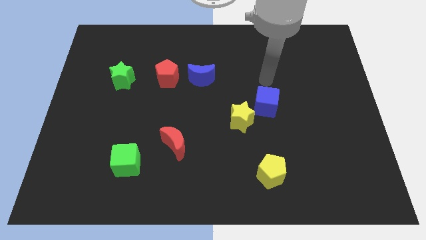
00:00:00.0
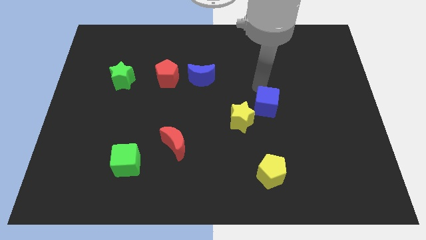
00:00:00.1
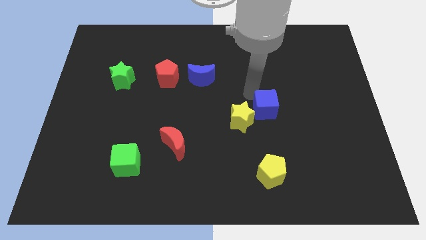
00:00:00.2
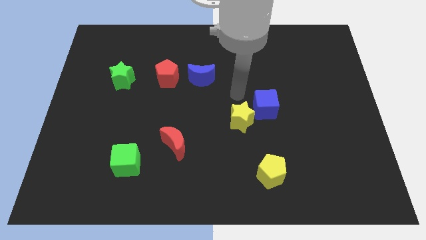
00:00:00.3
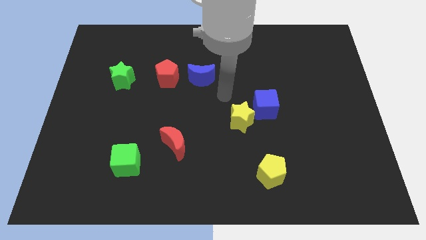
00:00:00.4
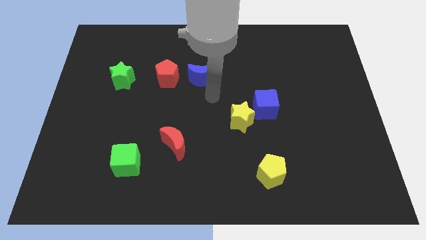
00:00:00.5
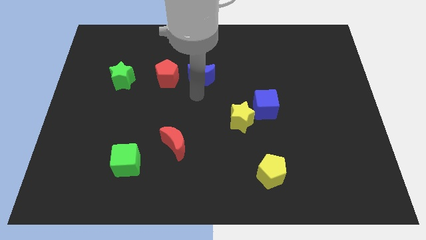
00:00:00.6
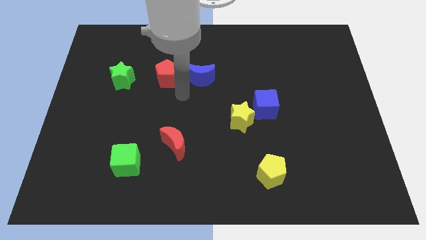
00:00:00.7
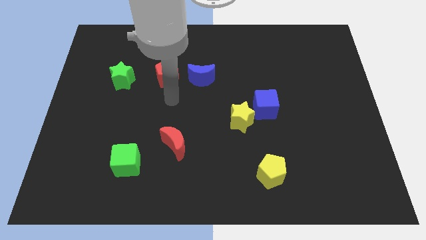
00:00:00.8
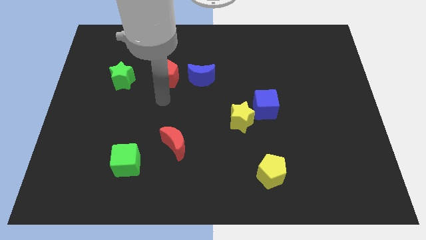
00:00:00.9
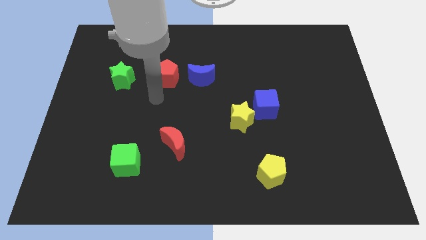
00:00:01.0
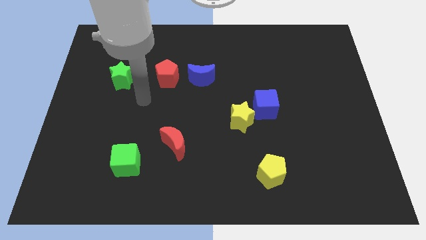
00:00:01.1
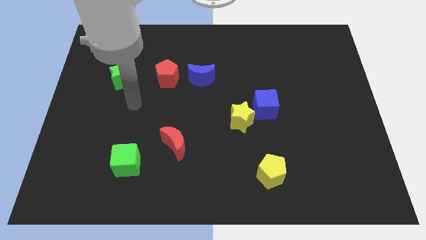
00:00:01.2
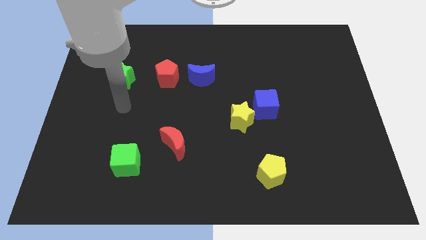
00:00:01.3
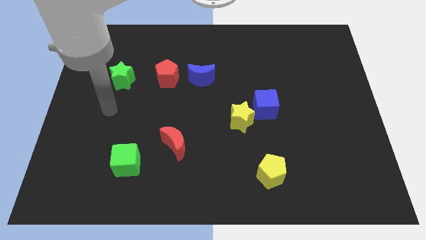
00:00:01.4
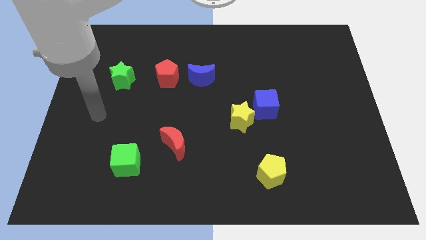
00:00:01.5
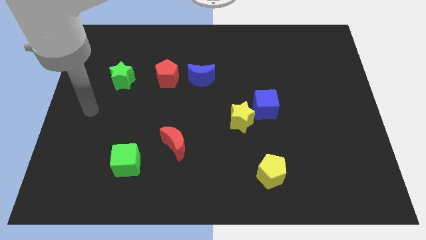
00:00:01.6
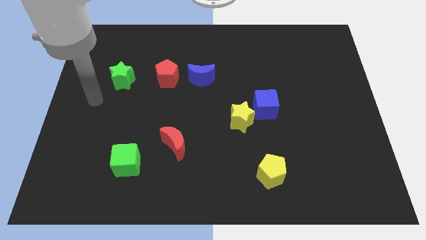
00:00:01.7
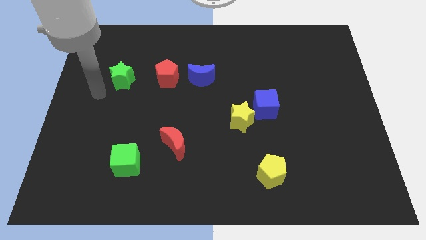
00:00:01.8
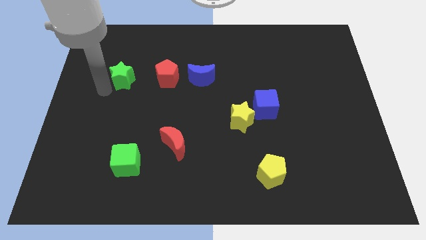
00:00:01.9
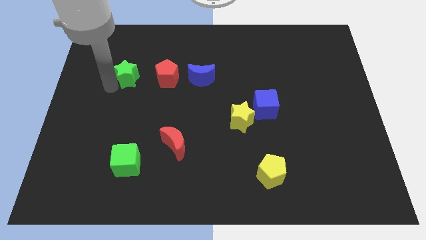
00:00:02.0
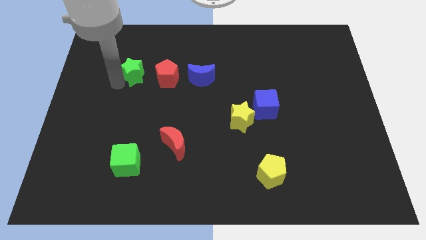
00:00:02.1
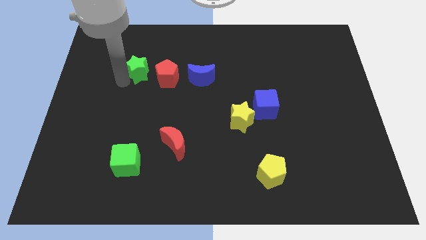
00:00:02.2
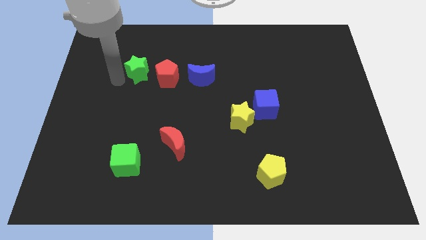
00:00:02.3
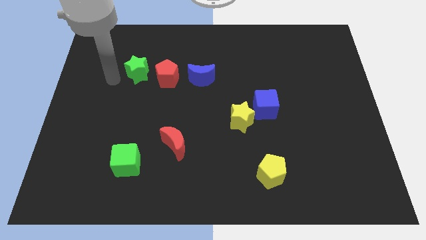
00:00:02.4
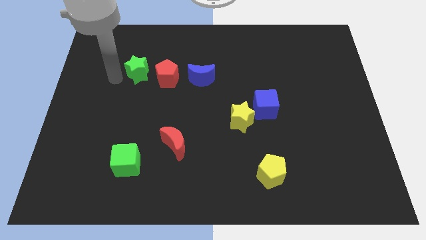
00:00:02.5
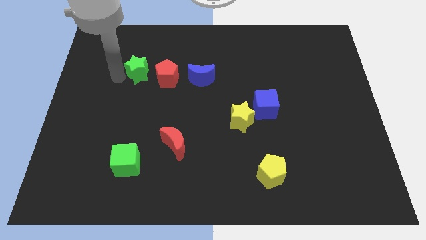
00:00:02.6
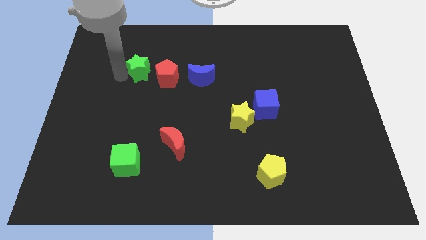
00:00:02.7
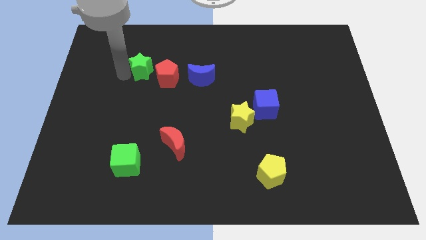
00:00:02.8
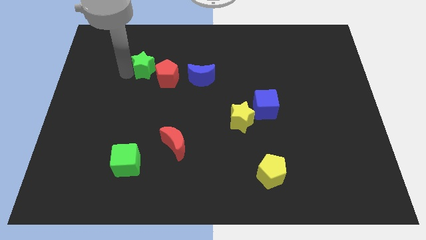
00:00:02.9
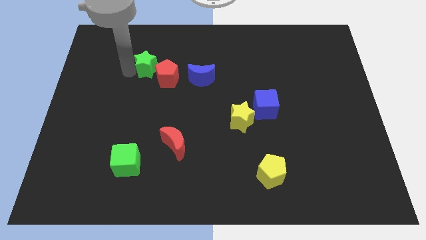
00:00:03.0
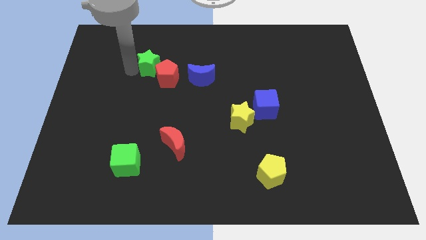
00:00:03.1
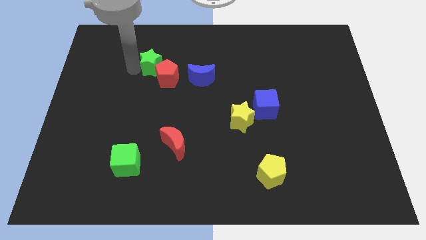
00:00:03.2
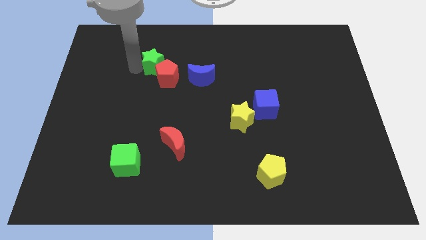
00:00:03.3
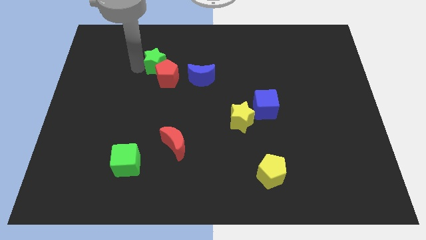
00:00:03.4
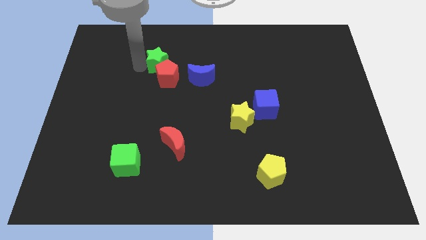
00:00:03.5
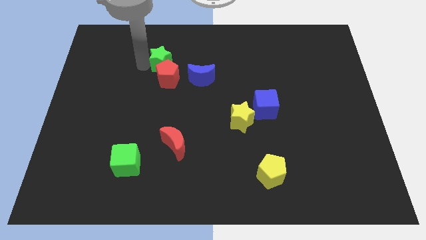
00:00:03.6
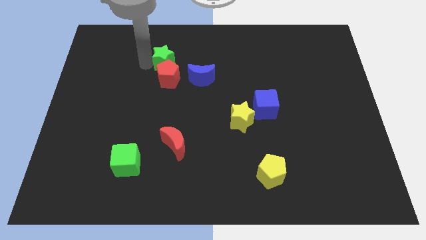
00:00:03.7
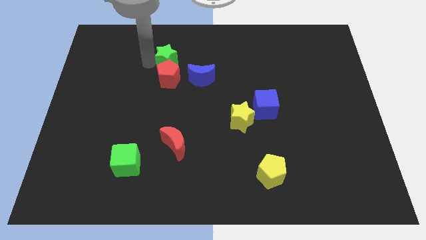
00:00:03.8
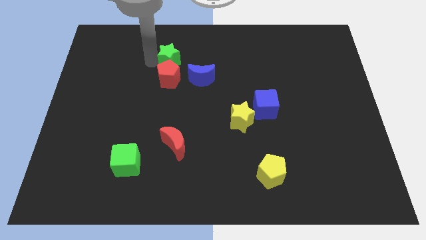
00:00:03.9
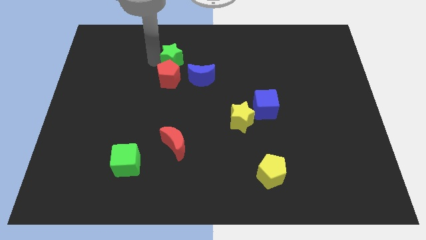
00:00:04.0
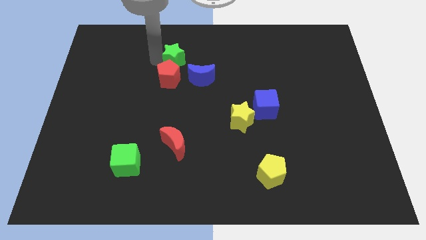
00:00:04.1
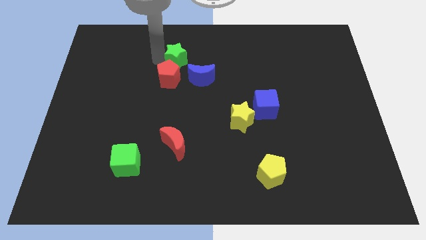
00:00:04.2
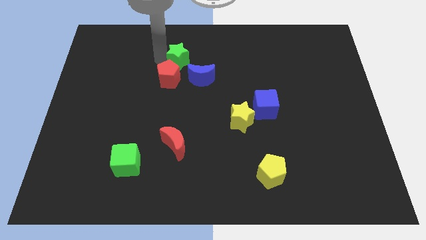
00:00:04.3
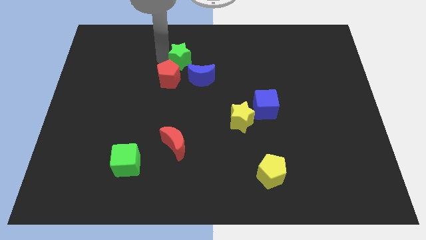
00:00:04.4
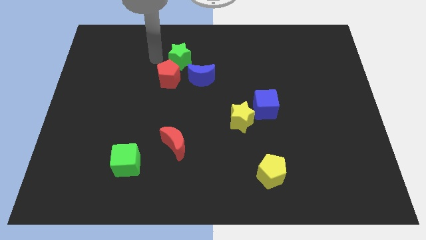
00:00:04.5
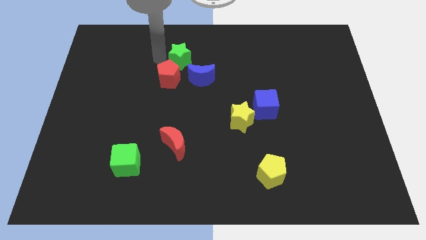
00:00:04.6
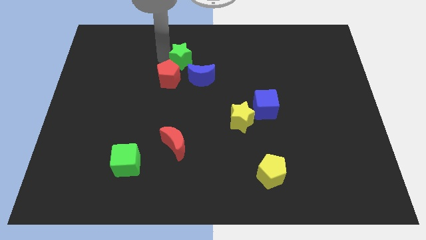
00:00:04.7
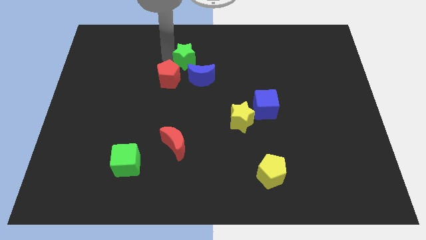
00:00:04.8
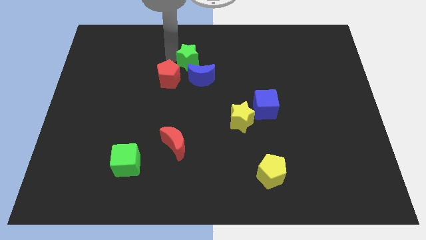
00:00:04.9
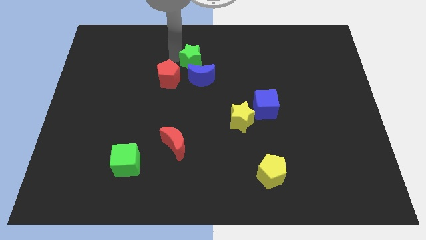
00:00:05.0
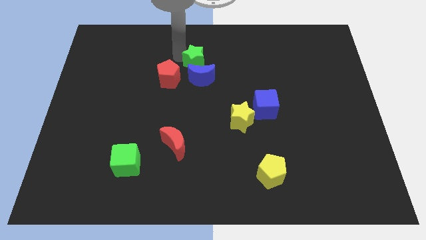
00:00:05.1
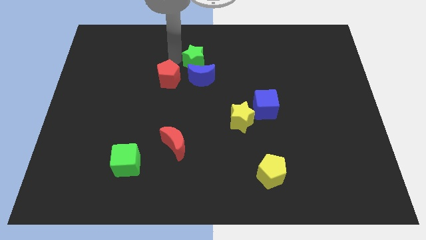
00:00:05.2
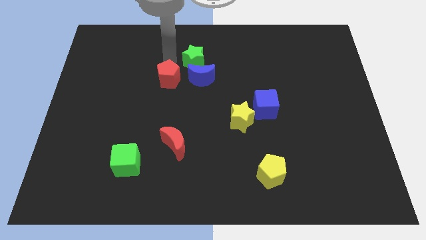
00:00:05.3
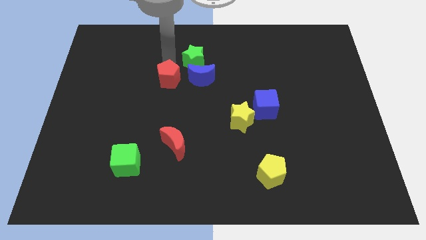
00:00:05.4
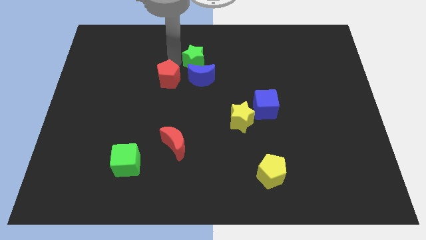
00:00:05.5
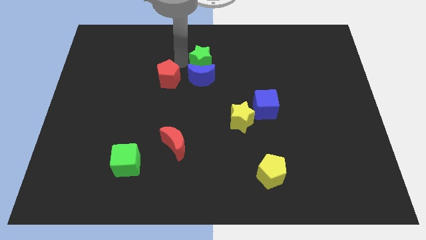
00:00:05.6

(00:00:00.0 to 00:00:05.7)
slide the green star to the top right of the blue moon

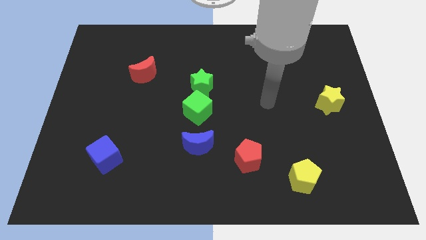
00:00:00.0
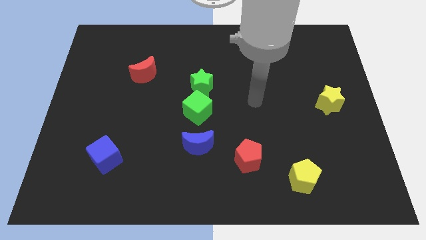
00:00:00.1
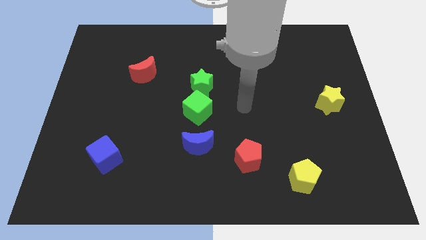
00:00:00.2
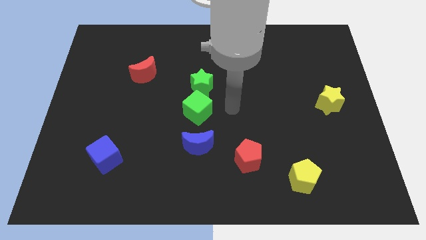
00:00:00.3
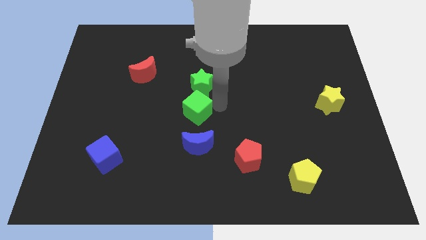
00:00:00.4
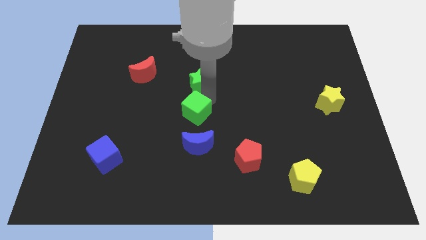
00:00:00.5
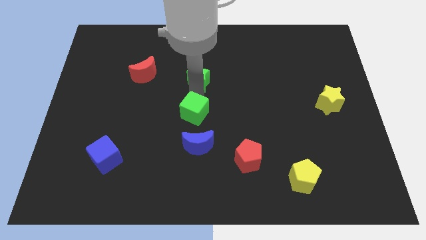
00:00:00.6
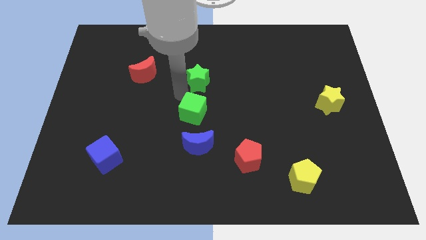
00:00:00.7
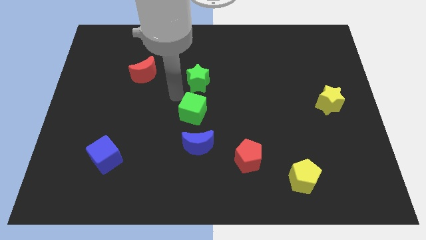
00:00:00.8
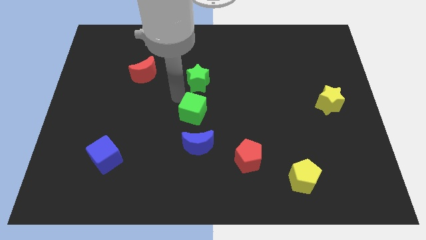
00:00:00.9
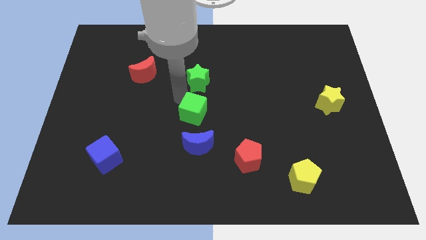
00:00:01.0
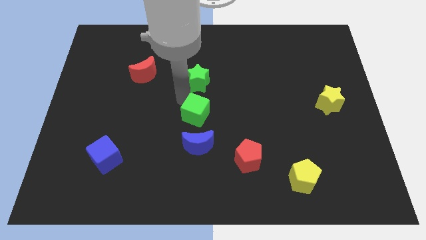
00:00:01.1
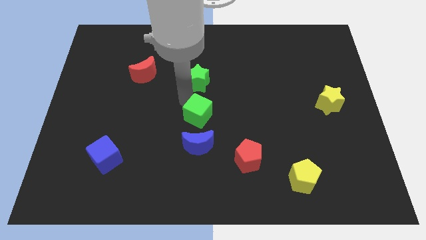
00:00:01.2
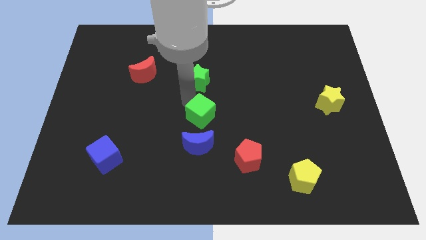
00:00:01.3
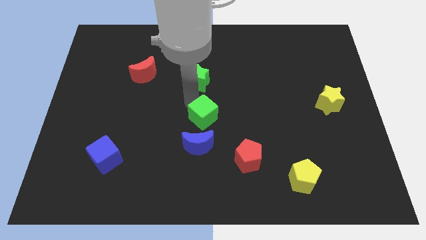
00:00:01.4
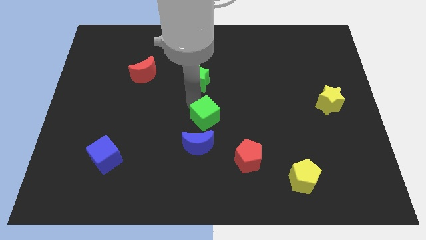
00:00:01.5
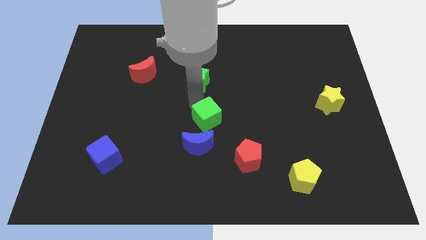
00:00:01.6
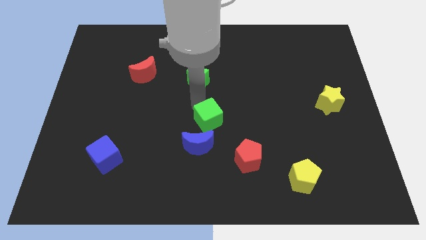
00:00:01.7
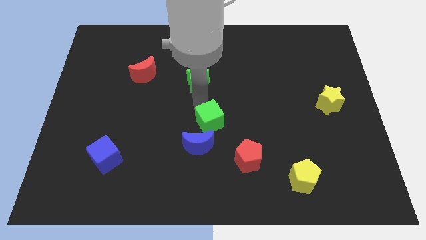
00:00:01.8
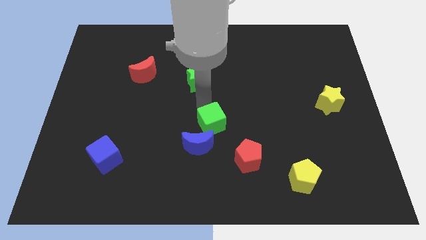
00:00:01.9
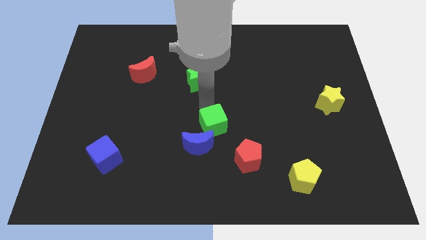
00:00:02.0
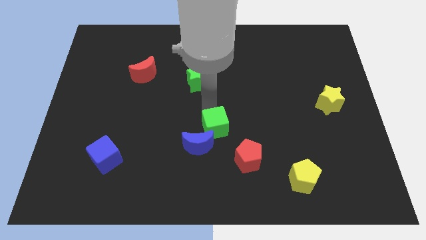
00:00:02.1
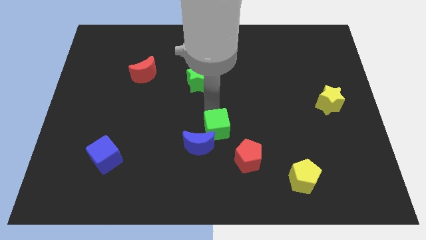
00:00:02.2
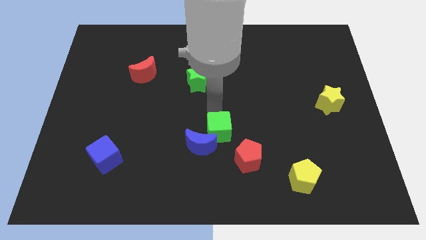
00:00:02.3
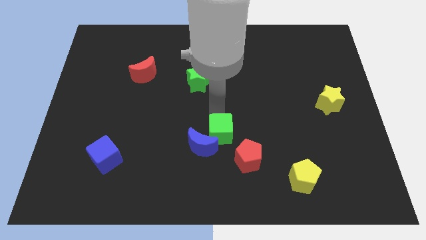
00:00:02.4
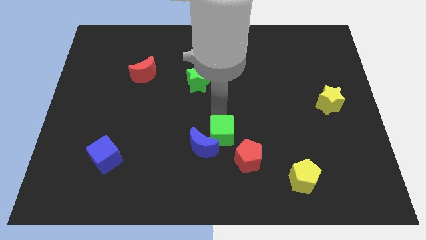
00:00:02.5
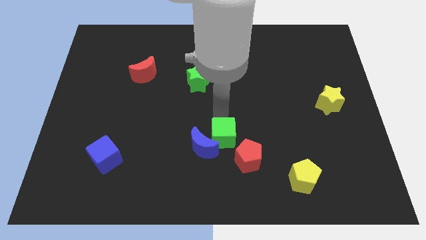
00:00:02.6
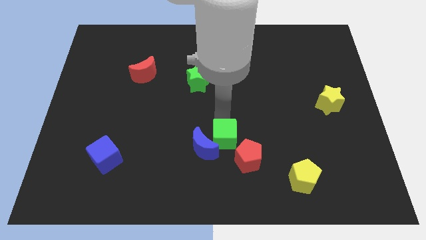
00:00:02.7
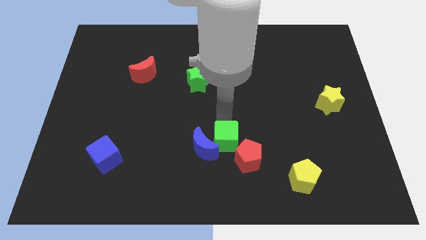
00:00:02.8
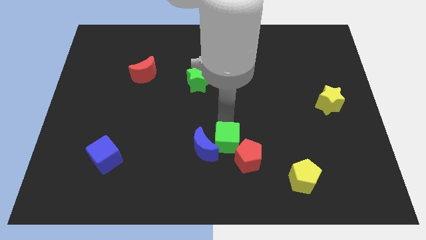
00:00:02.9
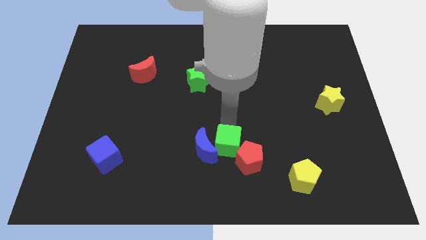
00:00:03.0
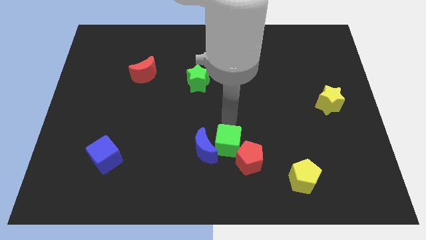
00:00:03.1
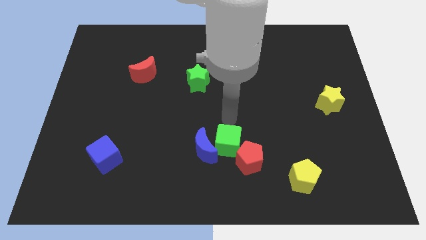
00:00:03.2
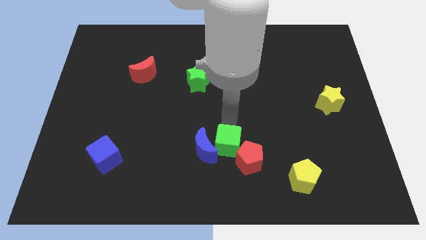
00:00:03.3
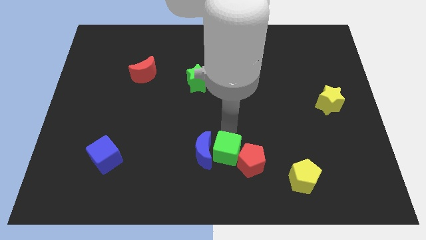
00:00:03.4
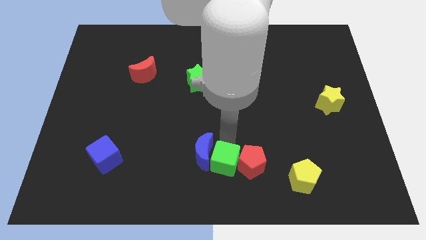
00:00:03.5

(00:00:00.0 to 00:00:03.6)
put the green cube to the bottom left of the red pentagon
